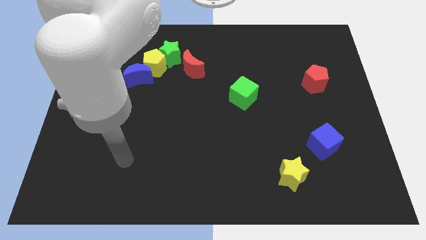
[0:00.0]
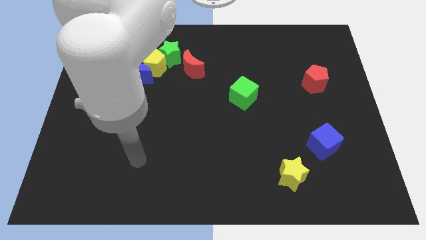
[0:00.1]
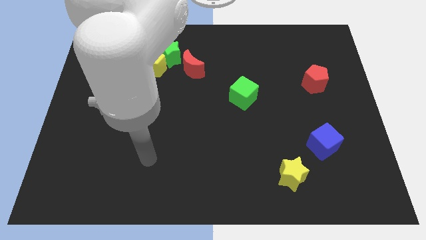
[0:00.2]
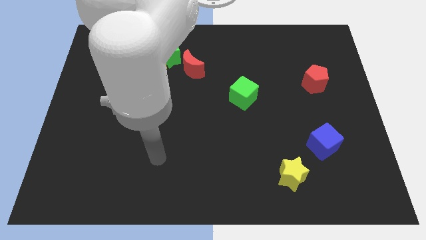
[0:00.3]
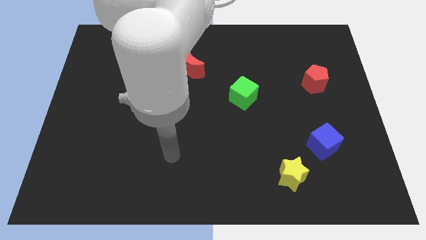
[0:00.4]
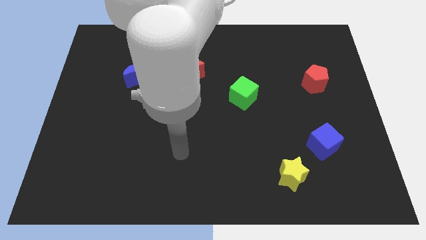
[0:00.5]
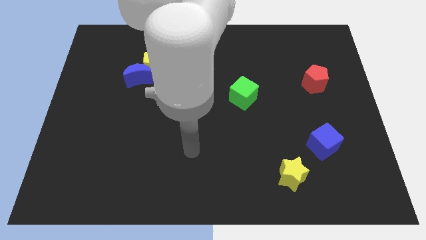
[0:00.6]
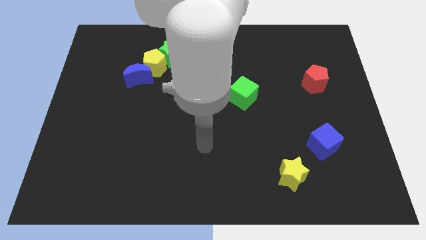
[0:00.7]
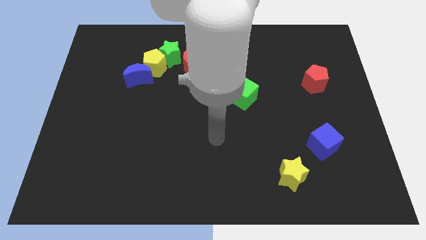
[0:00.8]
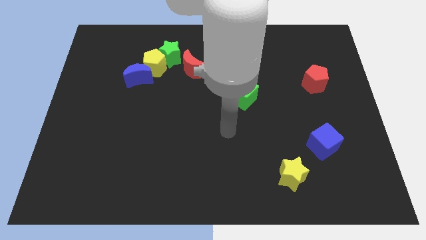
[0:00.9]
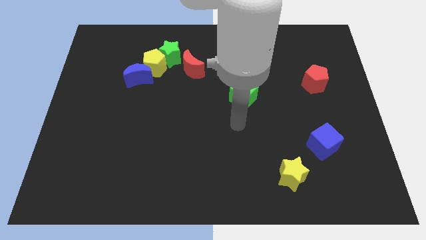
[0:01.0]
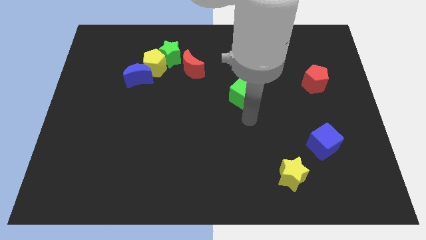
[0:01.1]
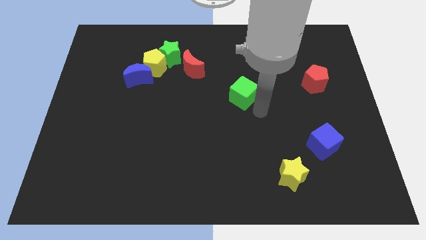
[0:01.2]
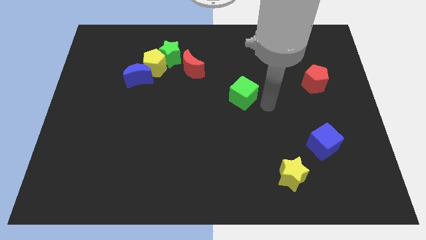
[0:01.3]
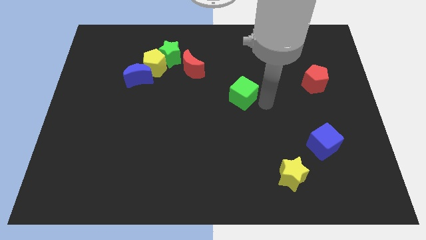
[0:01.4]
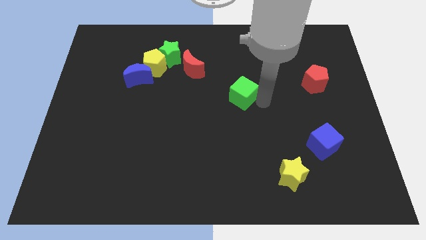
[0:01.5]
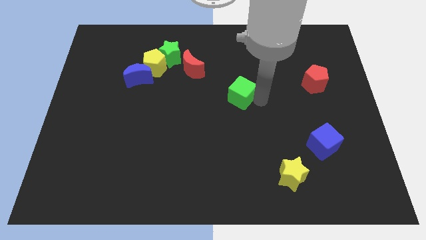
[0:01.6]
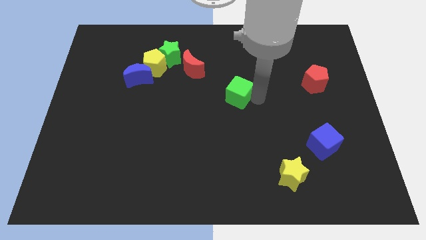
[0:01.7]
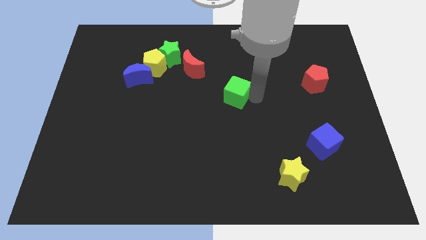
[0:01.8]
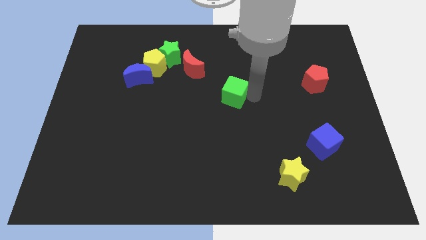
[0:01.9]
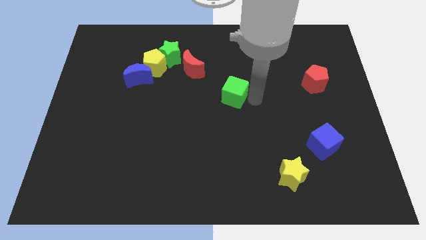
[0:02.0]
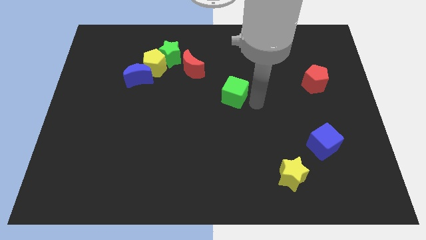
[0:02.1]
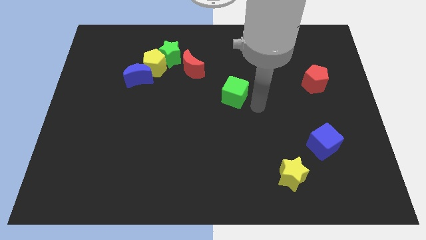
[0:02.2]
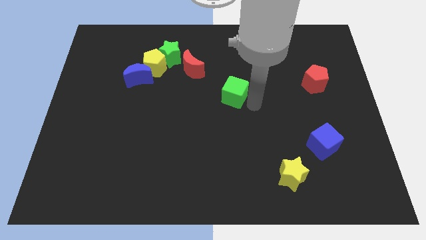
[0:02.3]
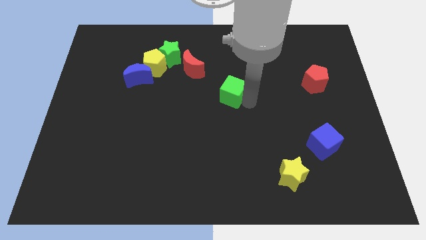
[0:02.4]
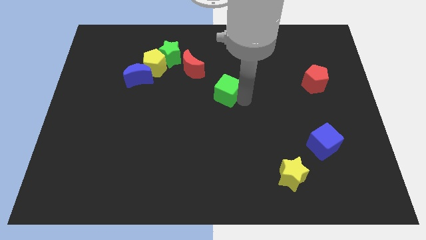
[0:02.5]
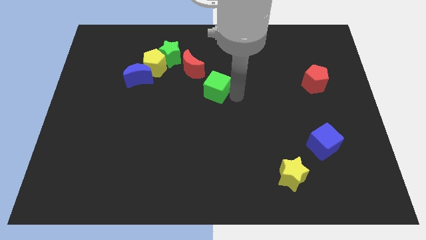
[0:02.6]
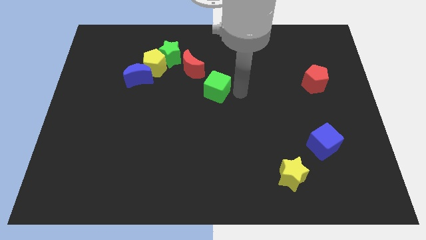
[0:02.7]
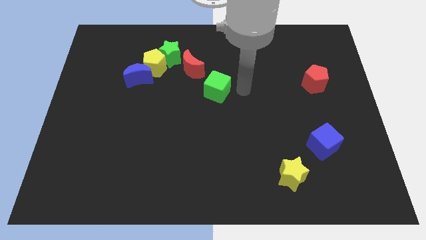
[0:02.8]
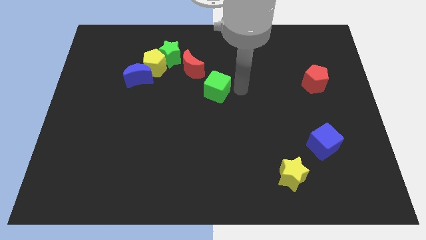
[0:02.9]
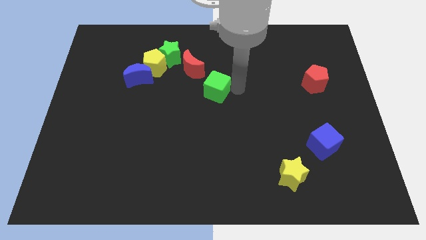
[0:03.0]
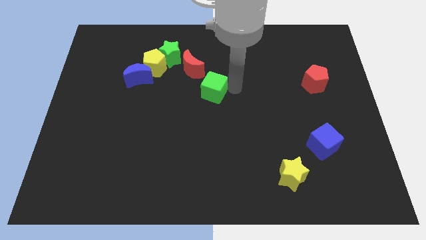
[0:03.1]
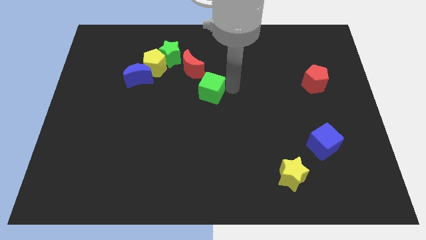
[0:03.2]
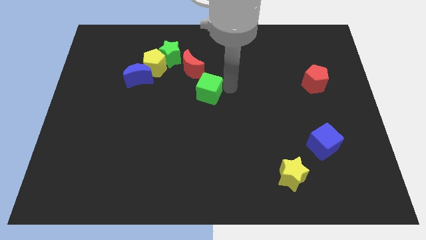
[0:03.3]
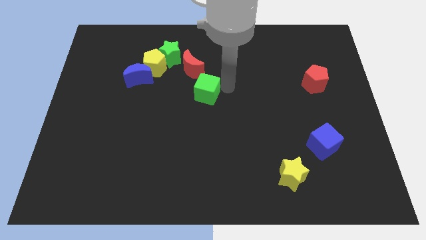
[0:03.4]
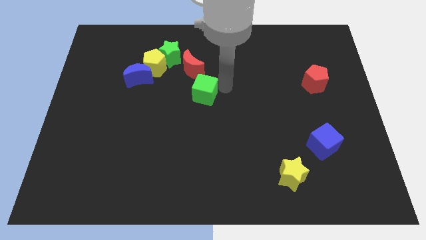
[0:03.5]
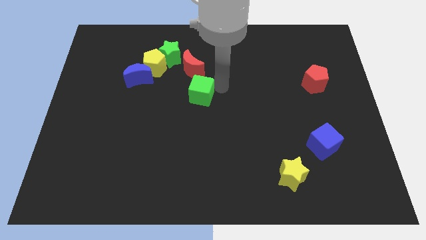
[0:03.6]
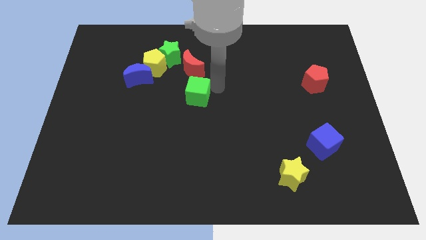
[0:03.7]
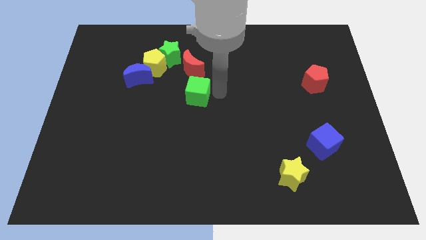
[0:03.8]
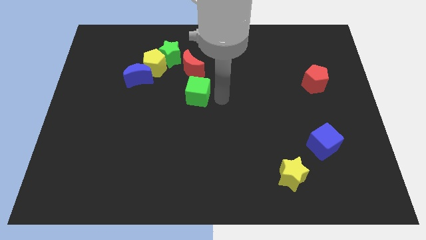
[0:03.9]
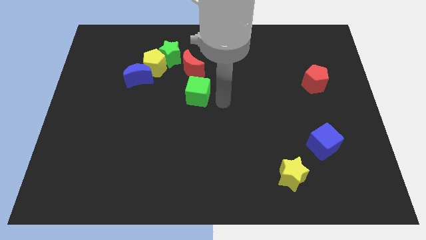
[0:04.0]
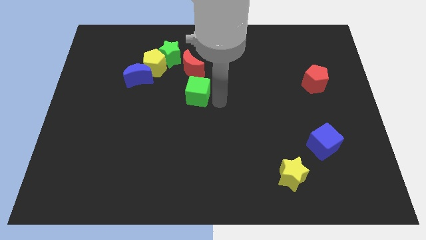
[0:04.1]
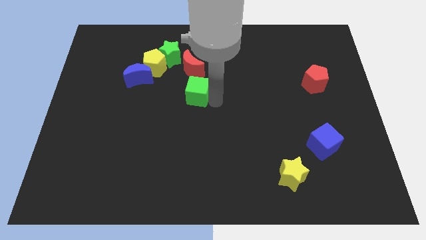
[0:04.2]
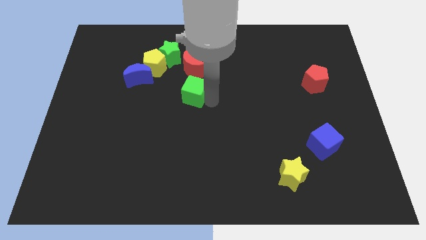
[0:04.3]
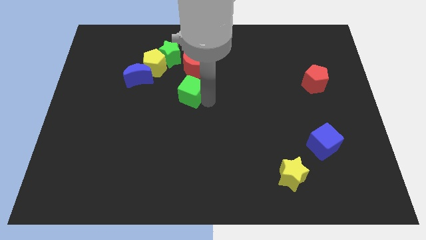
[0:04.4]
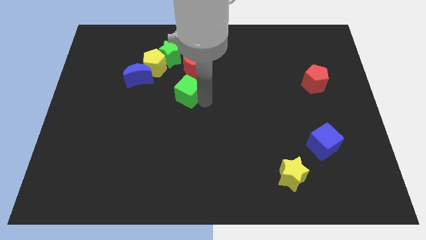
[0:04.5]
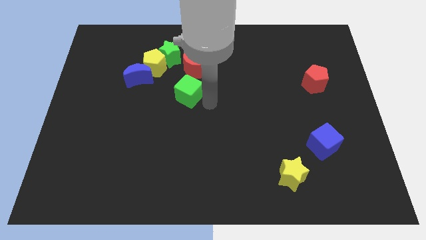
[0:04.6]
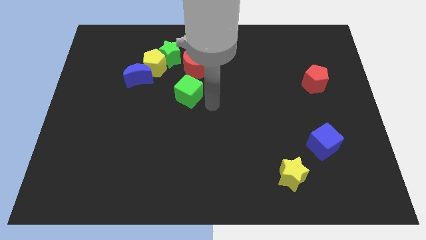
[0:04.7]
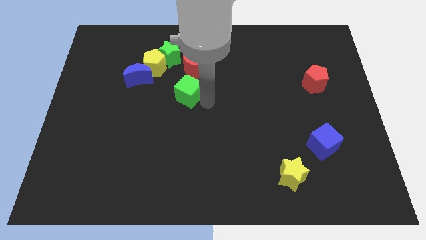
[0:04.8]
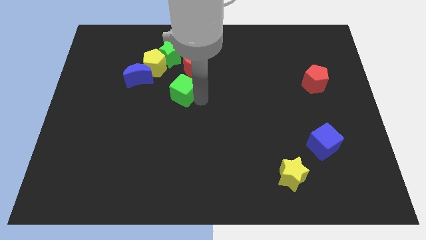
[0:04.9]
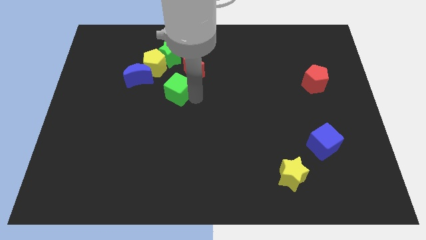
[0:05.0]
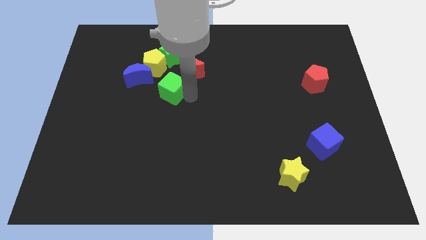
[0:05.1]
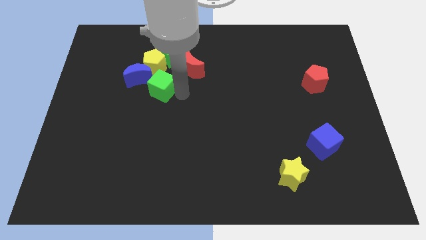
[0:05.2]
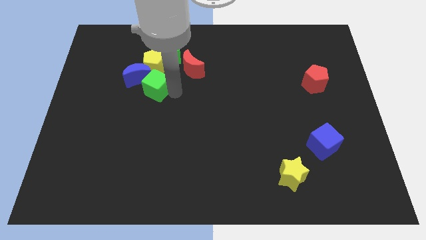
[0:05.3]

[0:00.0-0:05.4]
slide the green cube close to the blue moon

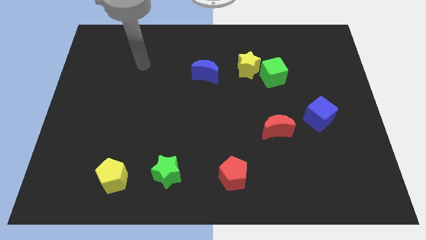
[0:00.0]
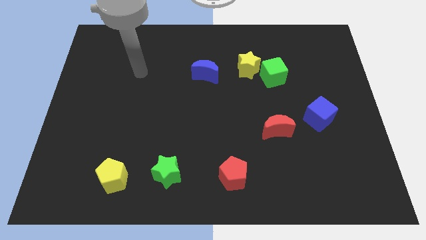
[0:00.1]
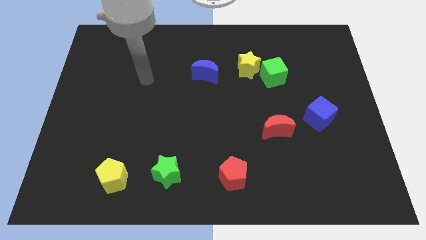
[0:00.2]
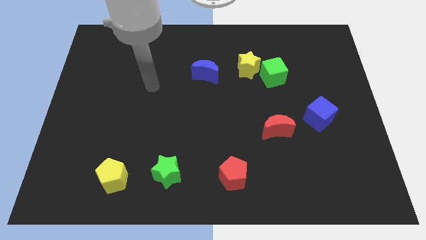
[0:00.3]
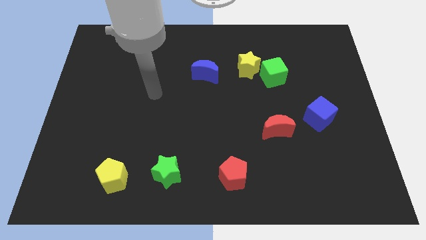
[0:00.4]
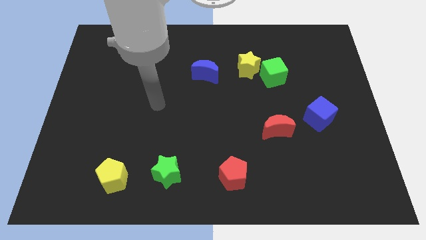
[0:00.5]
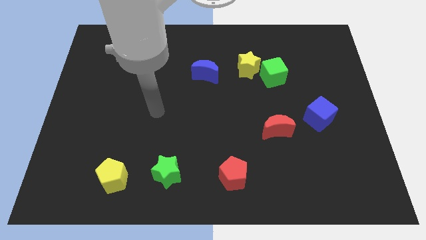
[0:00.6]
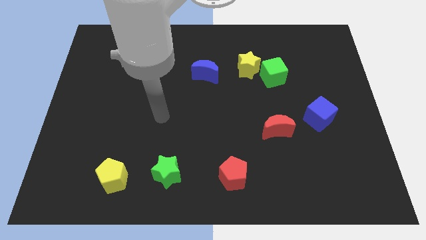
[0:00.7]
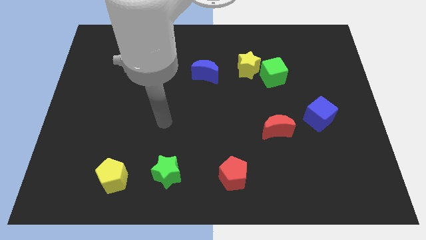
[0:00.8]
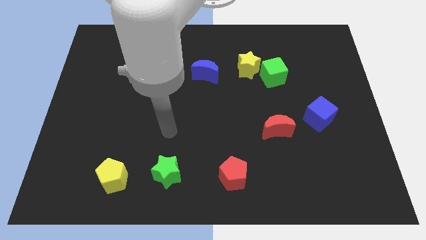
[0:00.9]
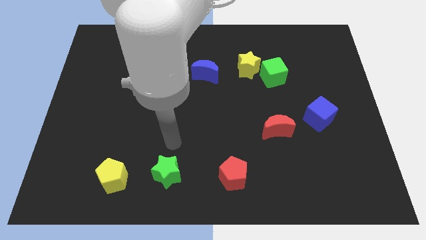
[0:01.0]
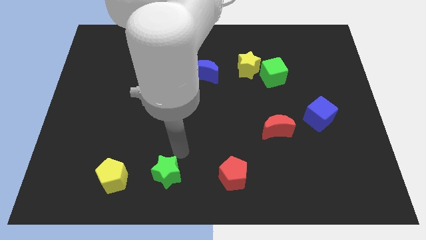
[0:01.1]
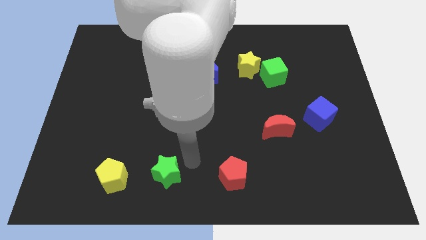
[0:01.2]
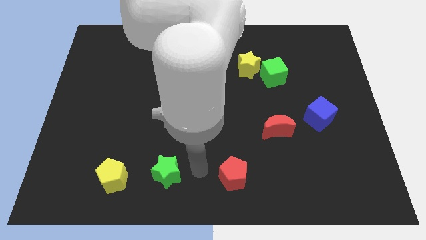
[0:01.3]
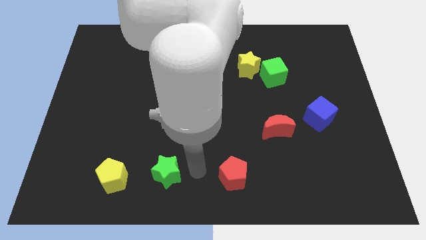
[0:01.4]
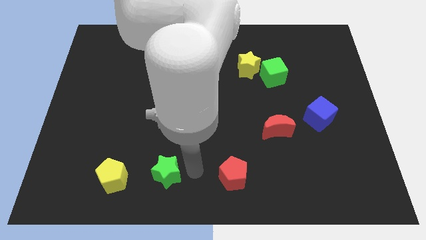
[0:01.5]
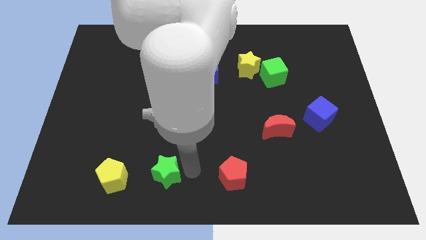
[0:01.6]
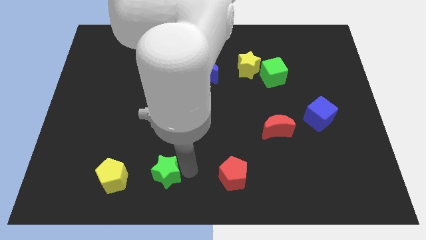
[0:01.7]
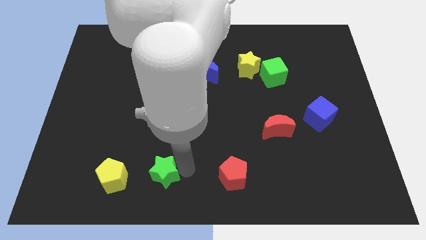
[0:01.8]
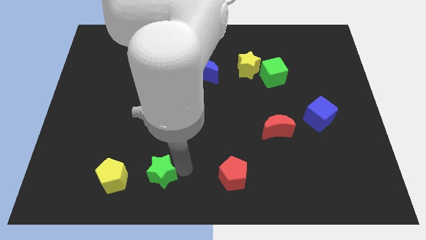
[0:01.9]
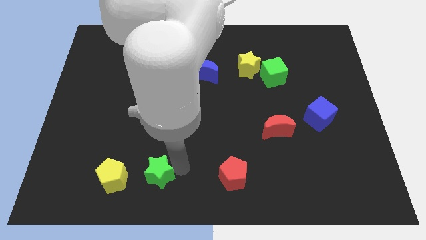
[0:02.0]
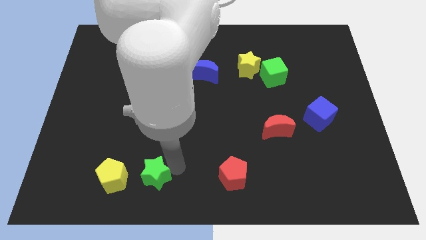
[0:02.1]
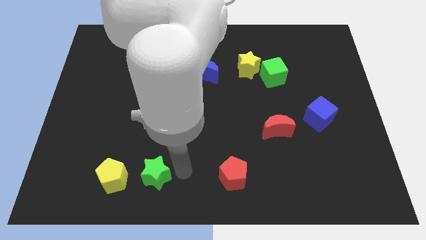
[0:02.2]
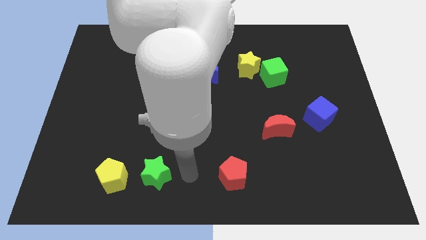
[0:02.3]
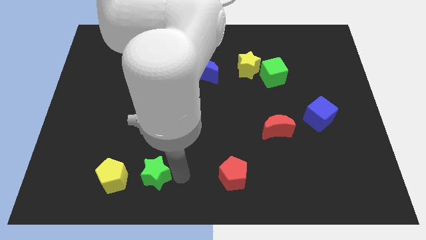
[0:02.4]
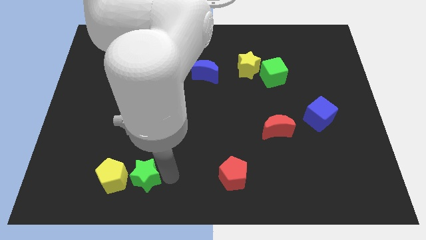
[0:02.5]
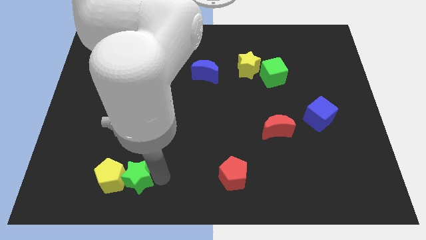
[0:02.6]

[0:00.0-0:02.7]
move the green star close to the yellow pentagon
